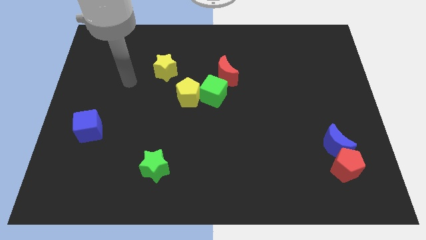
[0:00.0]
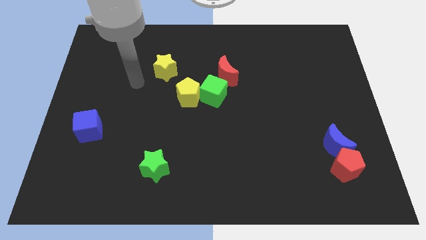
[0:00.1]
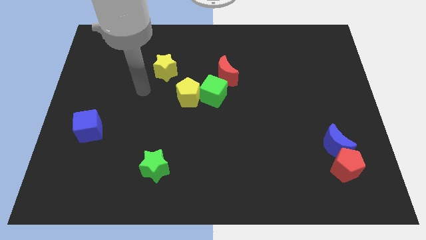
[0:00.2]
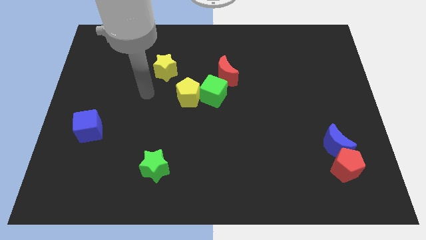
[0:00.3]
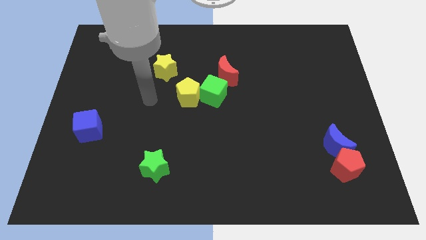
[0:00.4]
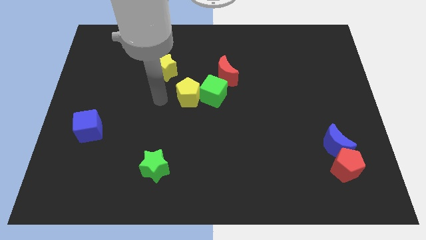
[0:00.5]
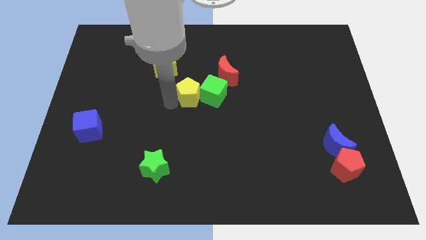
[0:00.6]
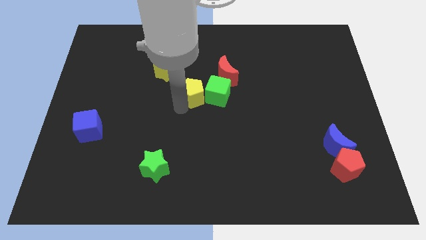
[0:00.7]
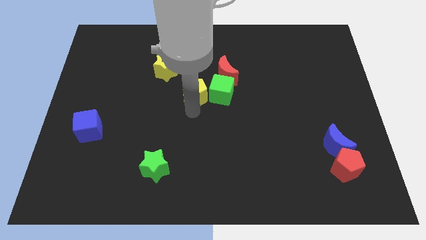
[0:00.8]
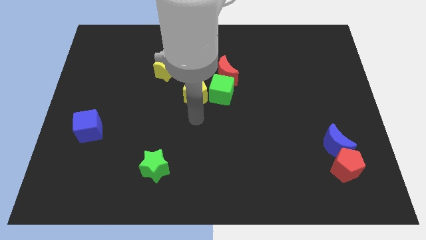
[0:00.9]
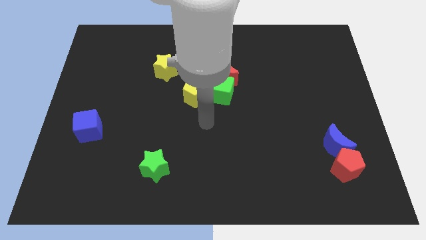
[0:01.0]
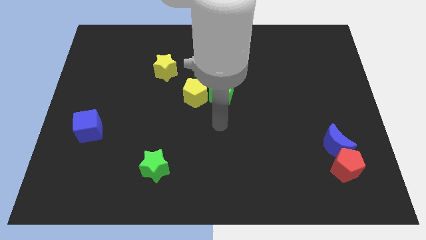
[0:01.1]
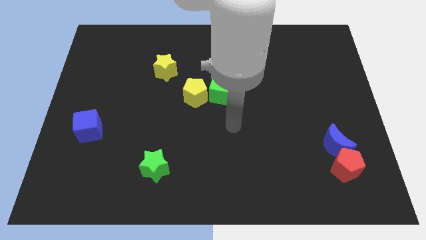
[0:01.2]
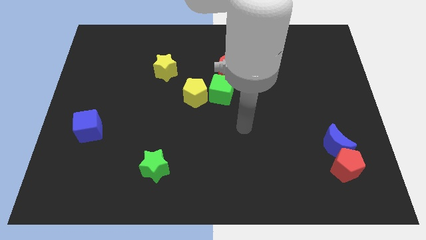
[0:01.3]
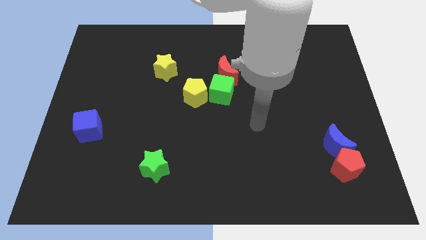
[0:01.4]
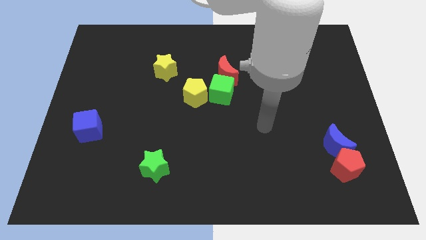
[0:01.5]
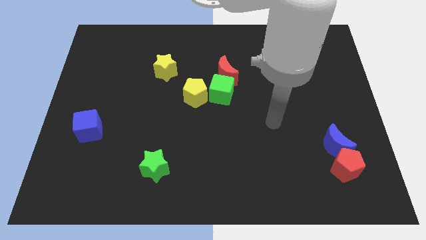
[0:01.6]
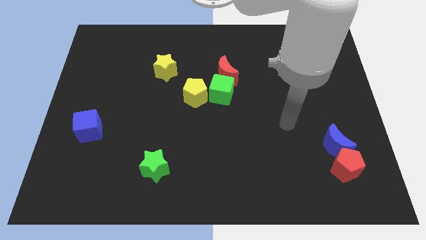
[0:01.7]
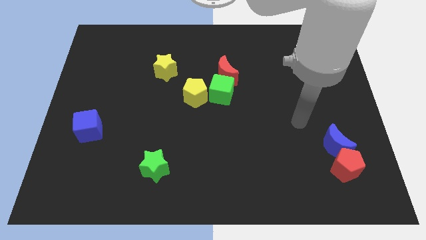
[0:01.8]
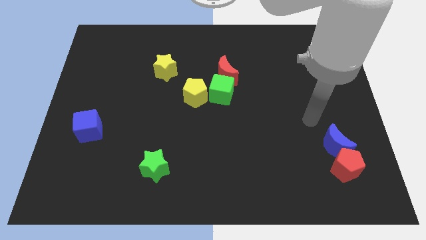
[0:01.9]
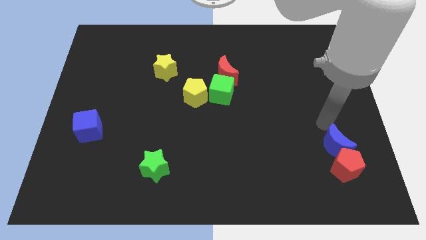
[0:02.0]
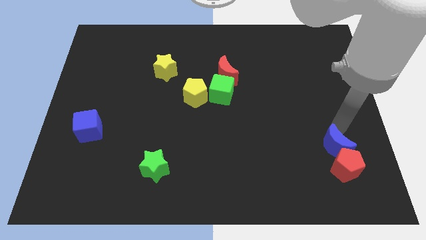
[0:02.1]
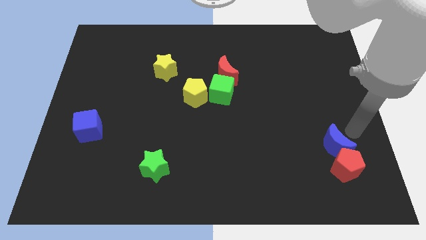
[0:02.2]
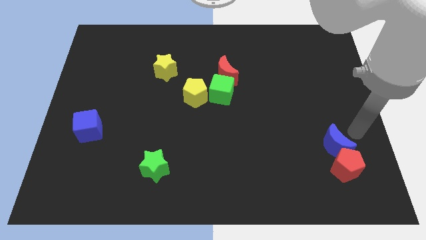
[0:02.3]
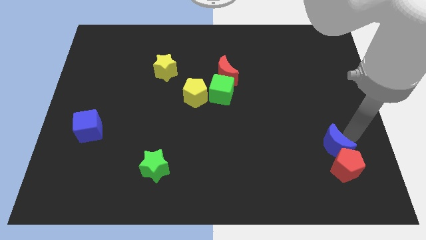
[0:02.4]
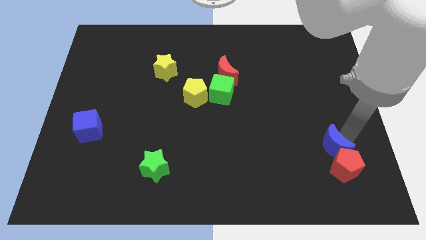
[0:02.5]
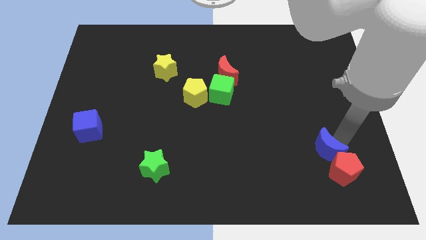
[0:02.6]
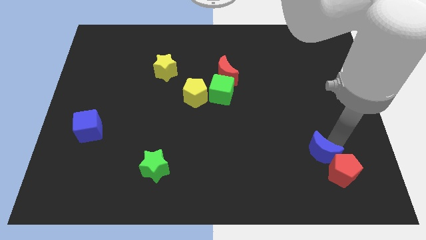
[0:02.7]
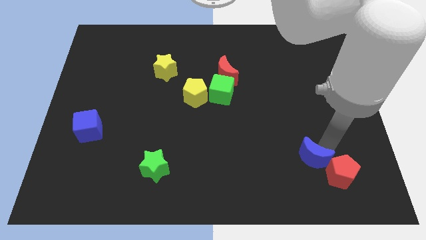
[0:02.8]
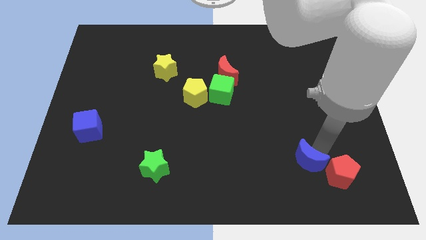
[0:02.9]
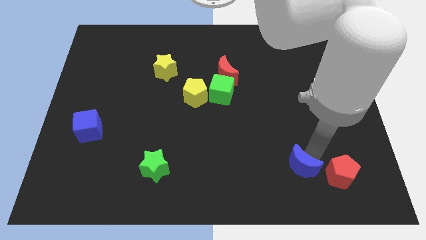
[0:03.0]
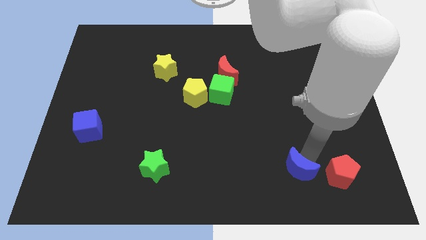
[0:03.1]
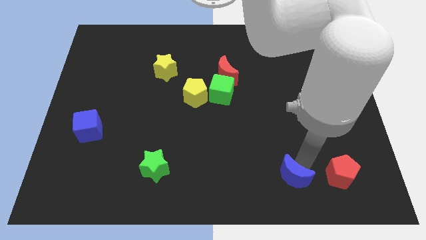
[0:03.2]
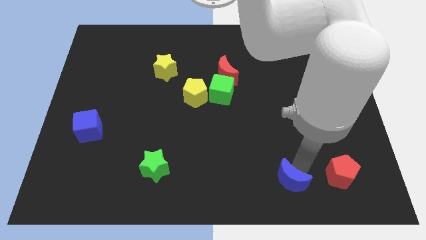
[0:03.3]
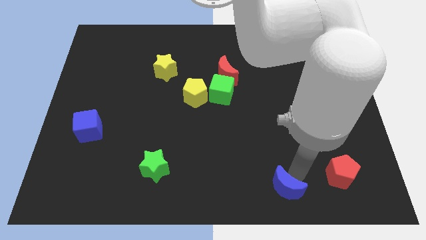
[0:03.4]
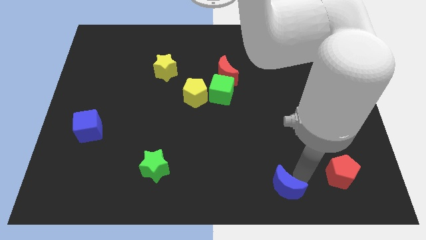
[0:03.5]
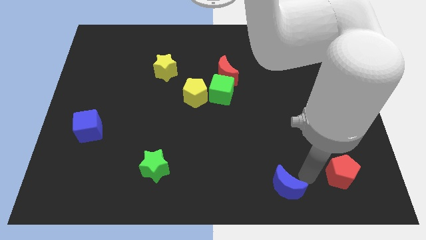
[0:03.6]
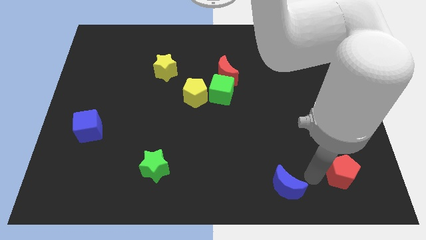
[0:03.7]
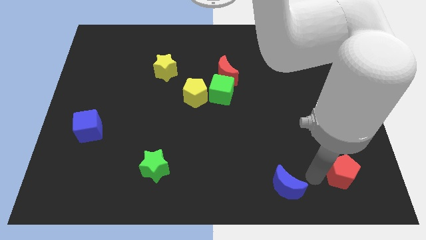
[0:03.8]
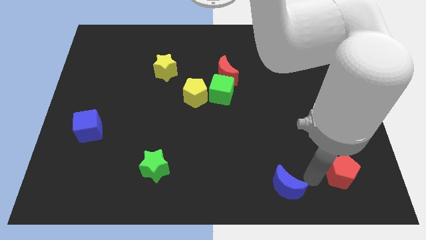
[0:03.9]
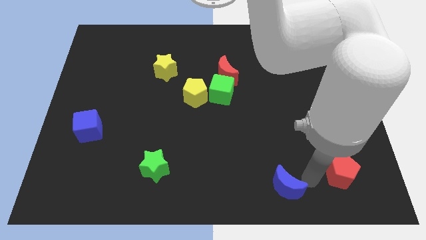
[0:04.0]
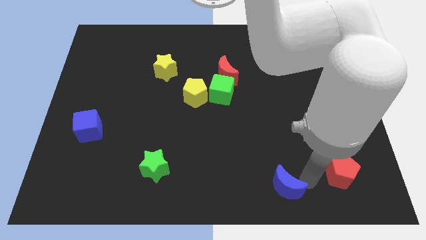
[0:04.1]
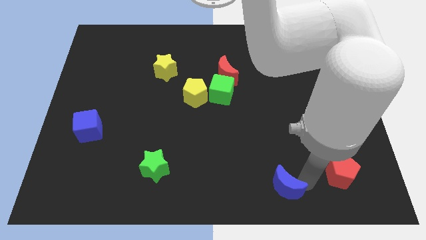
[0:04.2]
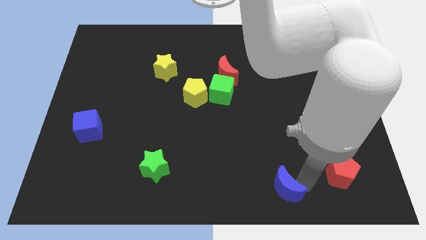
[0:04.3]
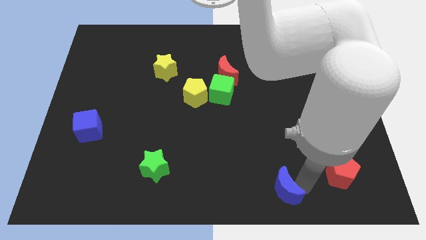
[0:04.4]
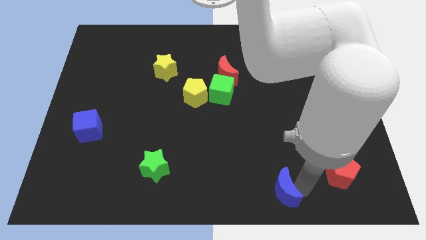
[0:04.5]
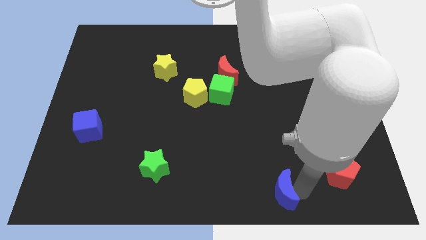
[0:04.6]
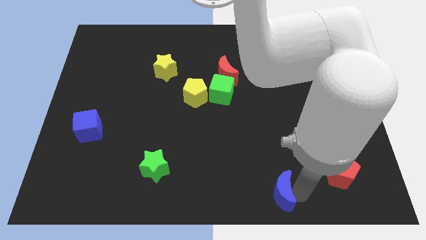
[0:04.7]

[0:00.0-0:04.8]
move the blue moon to the bottom side

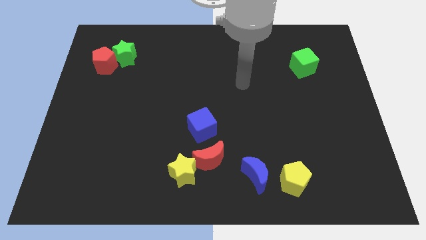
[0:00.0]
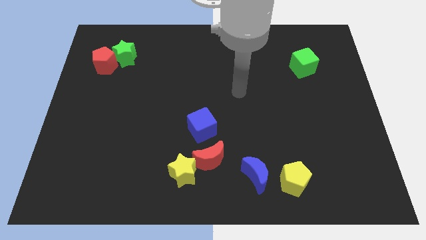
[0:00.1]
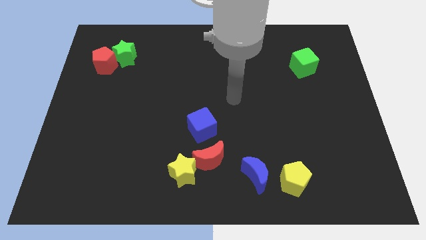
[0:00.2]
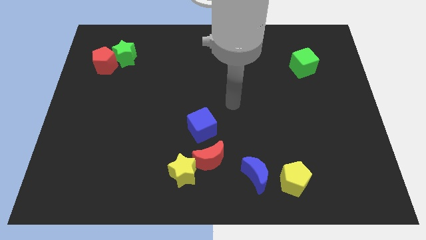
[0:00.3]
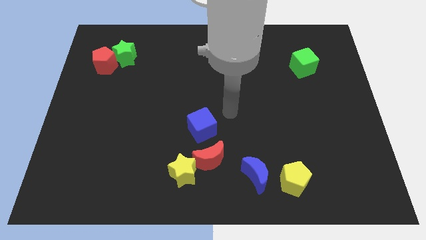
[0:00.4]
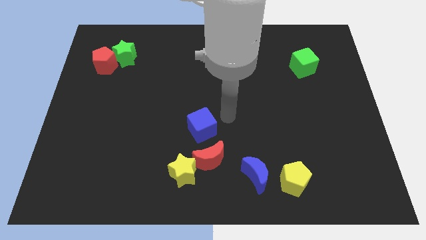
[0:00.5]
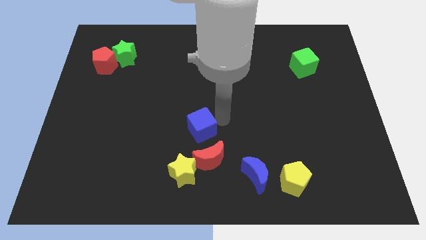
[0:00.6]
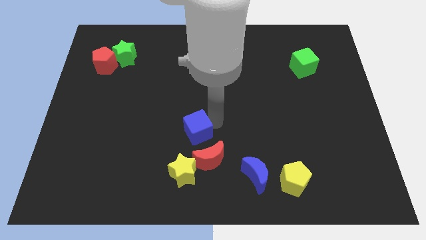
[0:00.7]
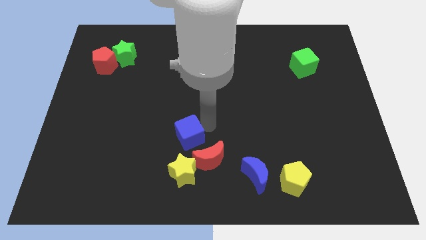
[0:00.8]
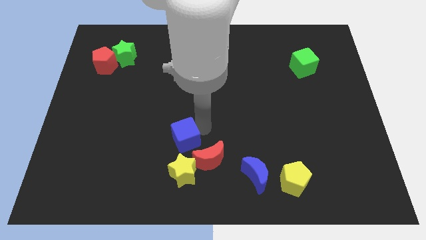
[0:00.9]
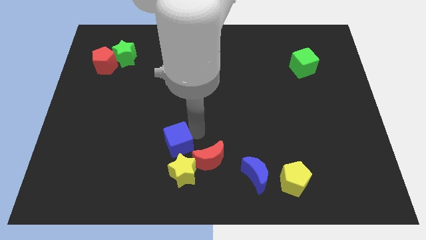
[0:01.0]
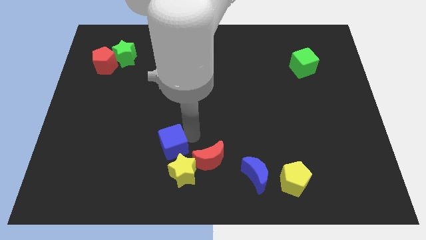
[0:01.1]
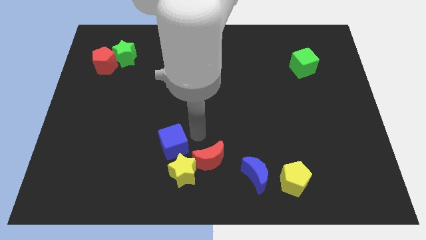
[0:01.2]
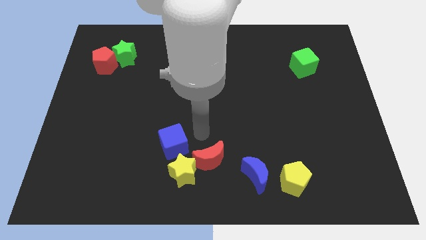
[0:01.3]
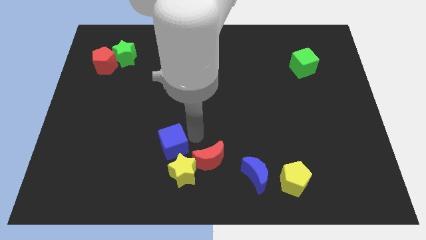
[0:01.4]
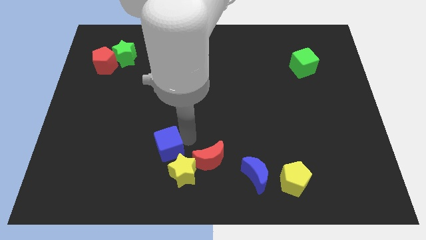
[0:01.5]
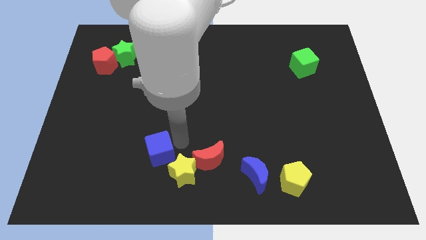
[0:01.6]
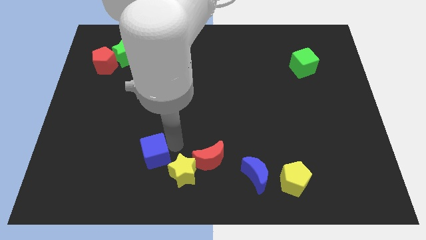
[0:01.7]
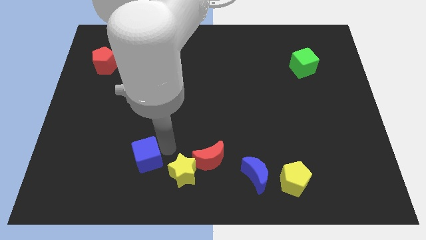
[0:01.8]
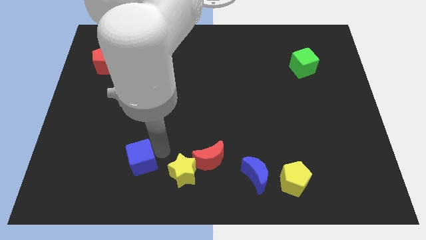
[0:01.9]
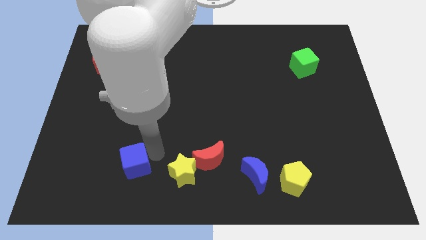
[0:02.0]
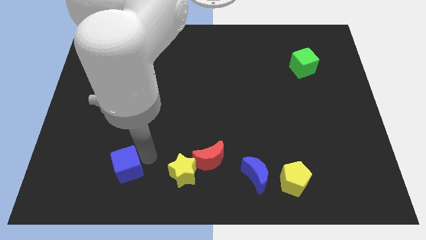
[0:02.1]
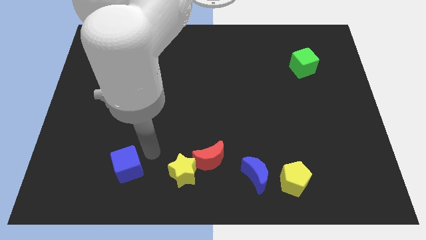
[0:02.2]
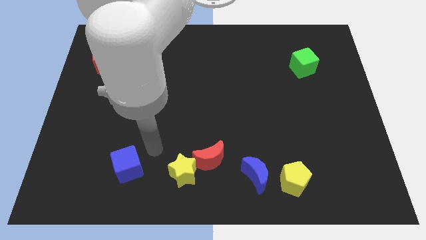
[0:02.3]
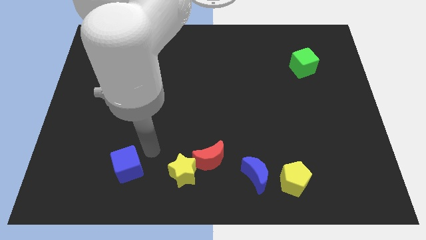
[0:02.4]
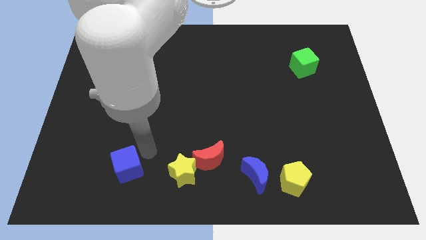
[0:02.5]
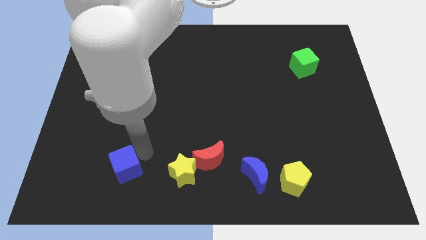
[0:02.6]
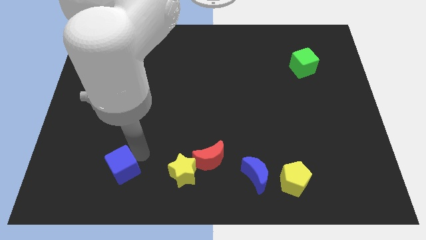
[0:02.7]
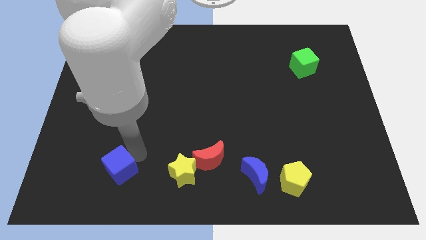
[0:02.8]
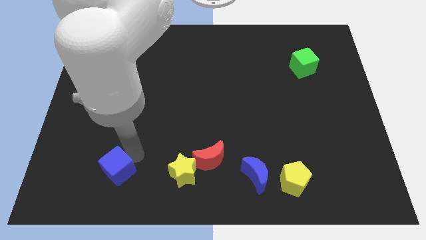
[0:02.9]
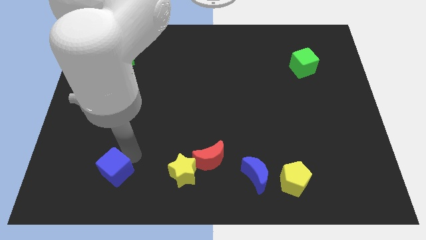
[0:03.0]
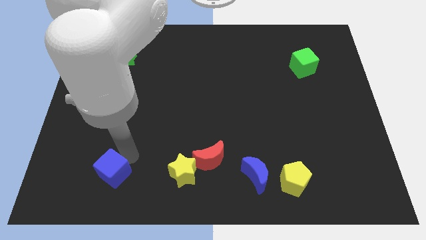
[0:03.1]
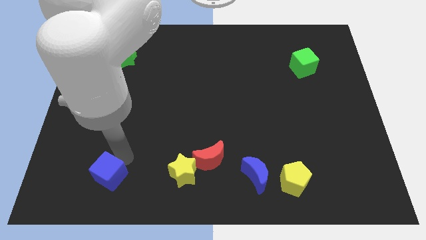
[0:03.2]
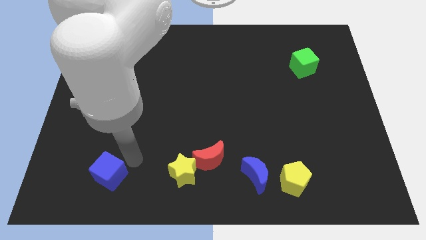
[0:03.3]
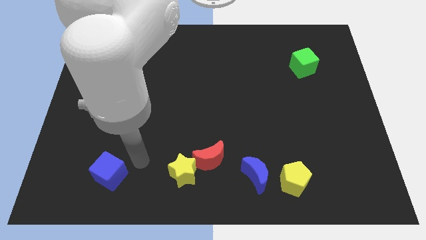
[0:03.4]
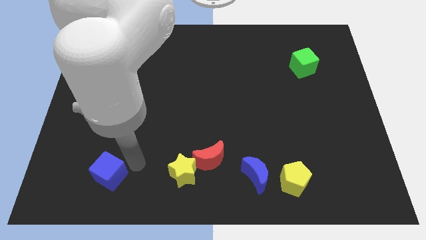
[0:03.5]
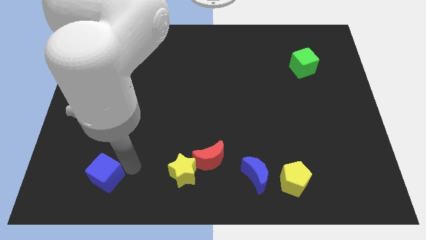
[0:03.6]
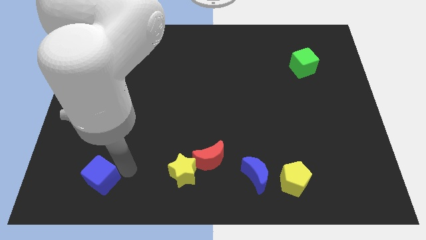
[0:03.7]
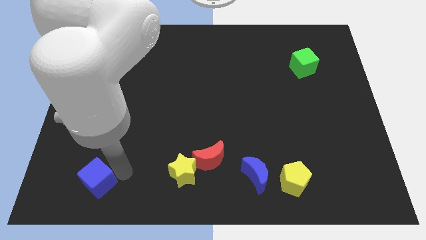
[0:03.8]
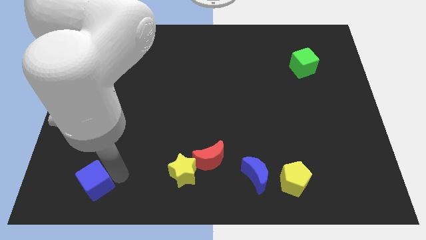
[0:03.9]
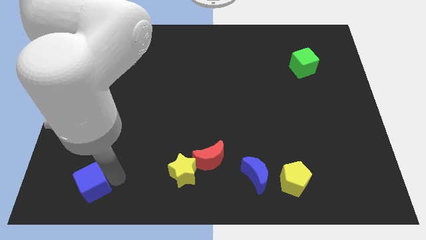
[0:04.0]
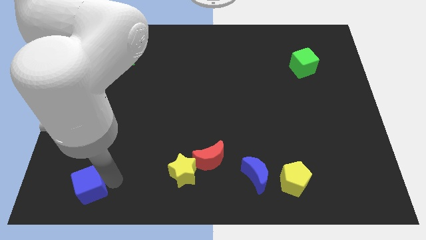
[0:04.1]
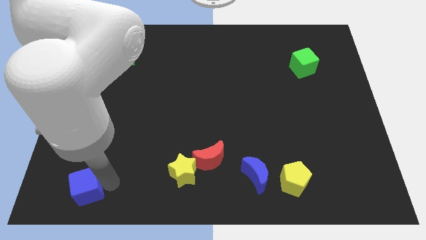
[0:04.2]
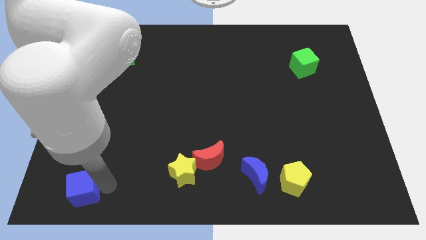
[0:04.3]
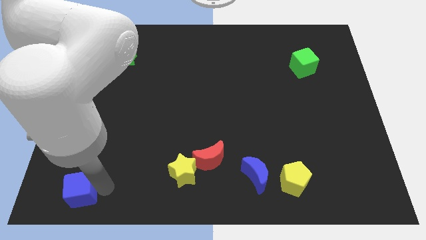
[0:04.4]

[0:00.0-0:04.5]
slide the blue cube to the lower left corner
